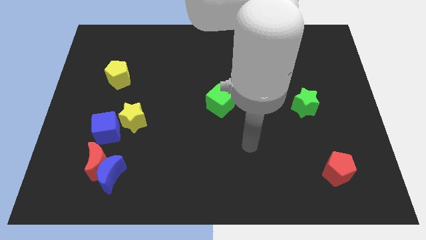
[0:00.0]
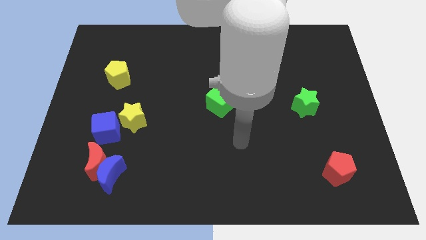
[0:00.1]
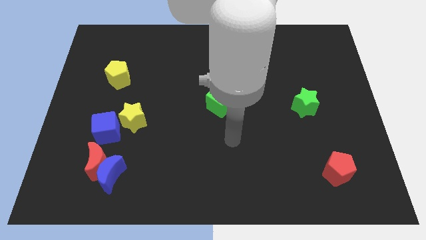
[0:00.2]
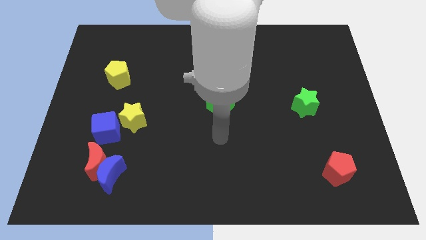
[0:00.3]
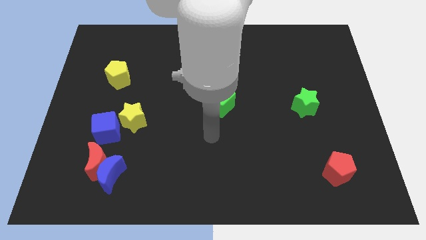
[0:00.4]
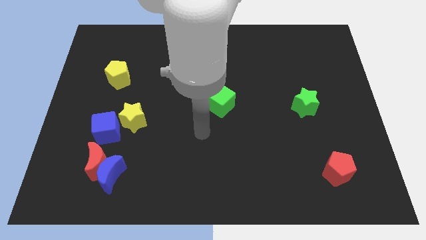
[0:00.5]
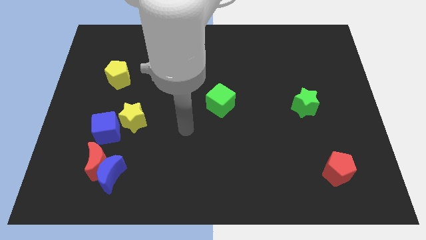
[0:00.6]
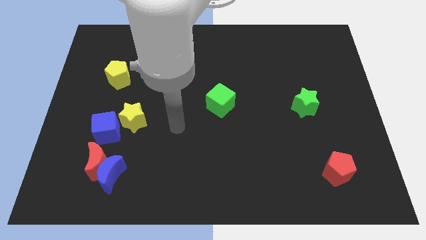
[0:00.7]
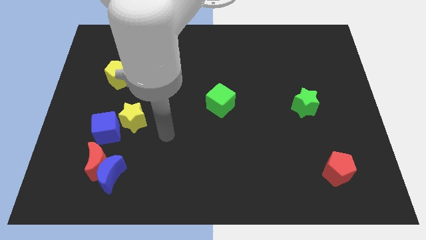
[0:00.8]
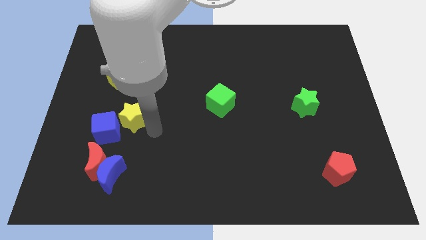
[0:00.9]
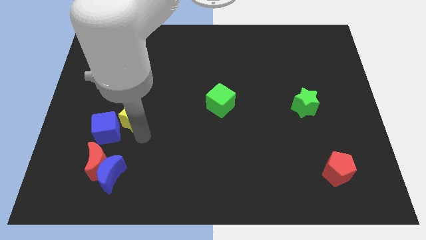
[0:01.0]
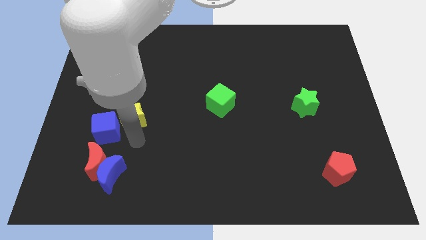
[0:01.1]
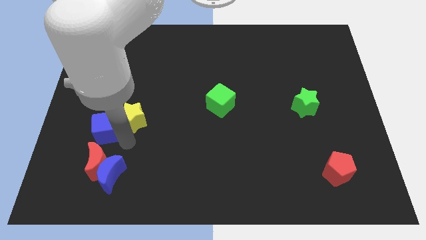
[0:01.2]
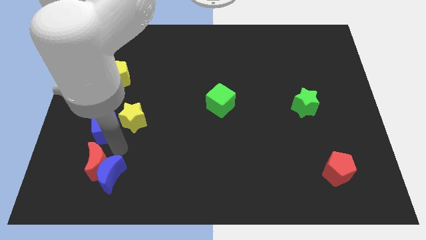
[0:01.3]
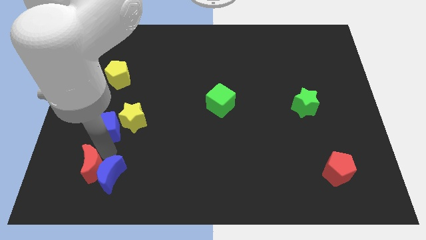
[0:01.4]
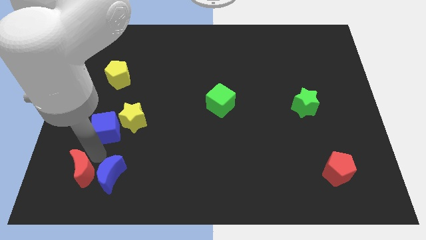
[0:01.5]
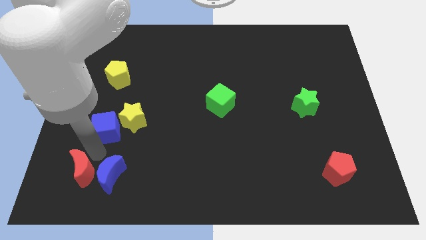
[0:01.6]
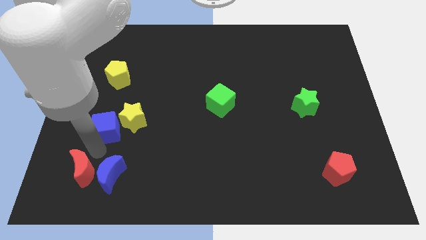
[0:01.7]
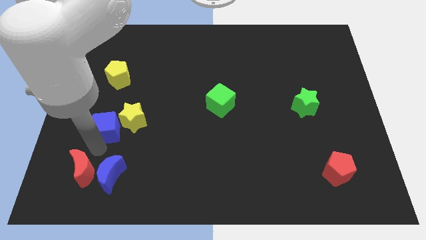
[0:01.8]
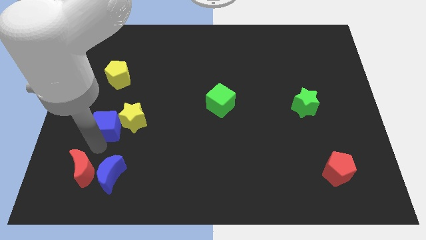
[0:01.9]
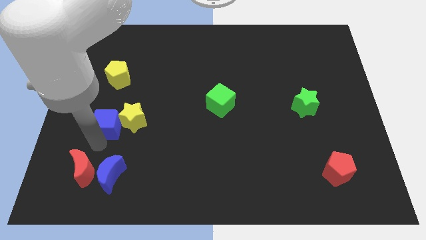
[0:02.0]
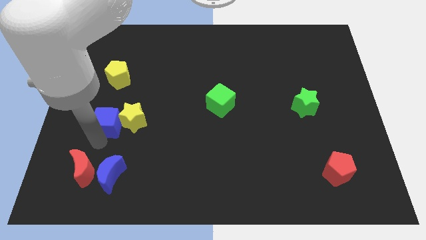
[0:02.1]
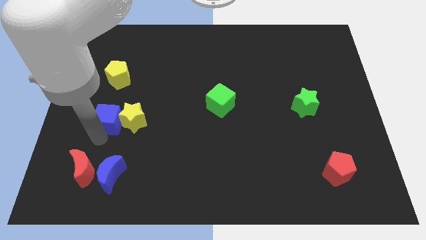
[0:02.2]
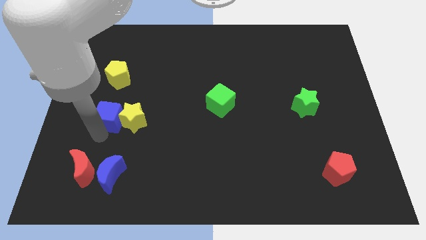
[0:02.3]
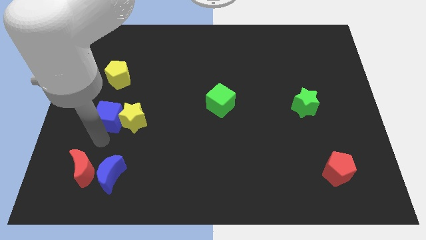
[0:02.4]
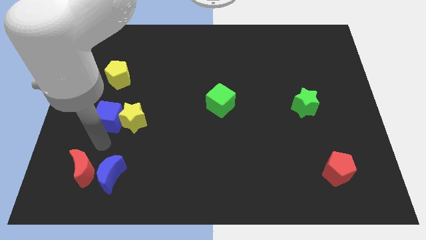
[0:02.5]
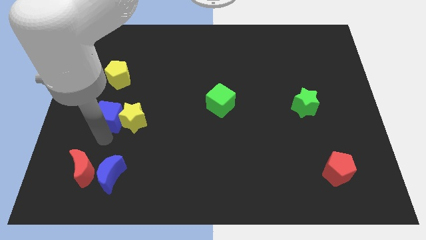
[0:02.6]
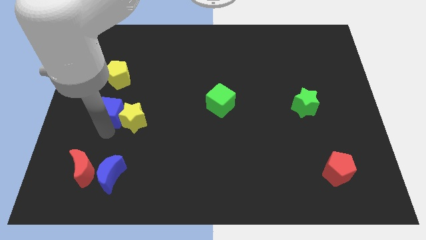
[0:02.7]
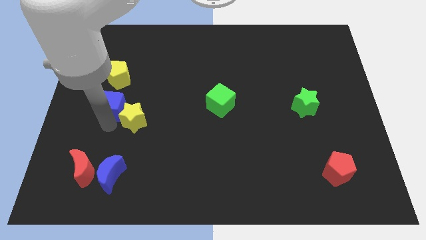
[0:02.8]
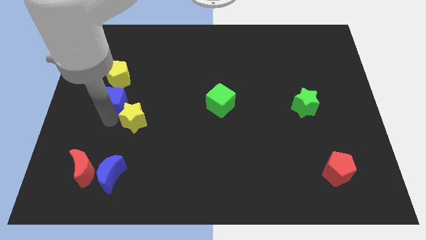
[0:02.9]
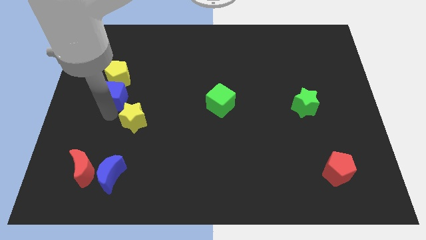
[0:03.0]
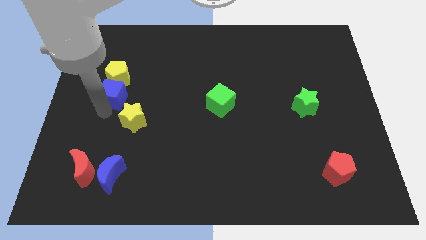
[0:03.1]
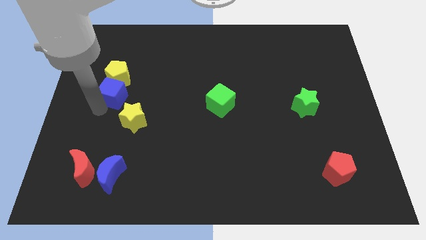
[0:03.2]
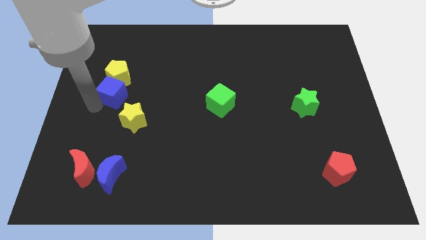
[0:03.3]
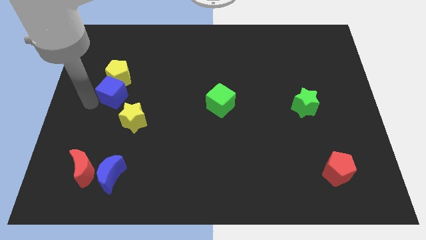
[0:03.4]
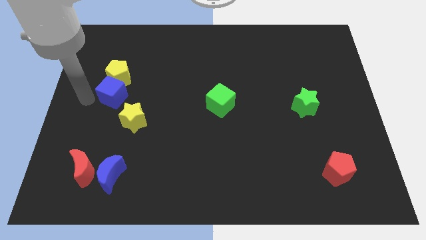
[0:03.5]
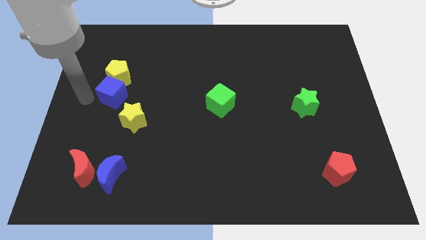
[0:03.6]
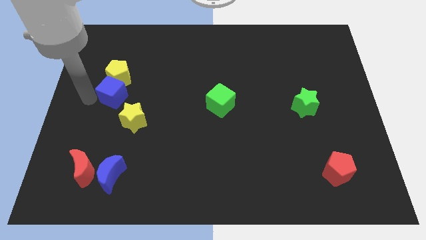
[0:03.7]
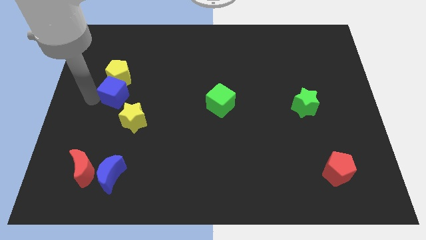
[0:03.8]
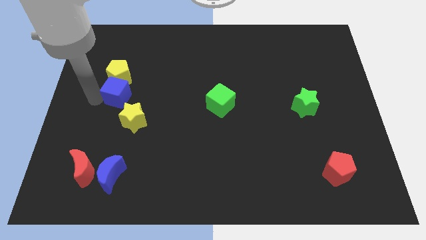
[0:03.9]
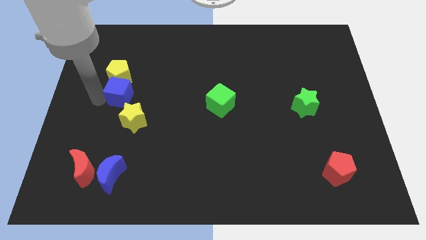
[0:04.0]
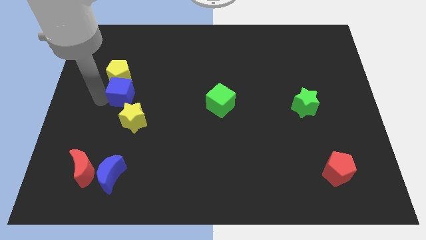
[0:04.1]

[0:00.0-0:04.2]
move the blue cube diagonally up and to the right a little

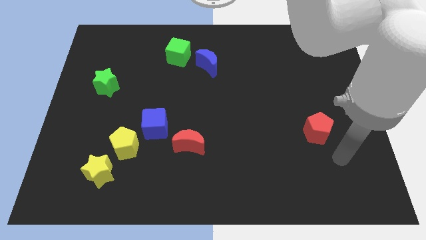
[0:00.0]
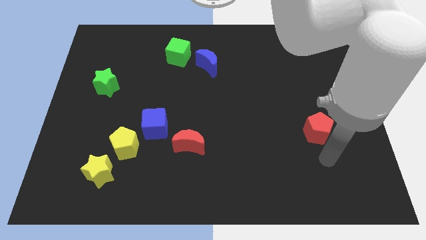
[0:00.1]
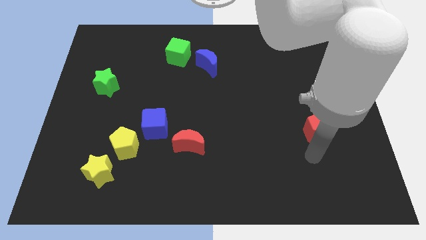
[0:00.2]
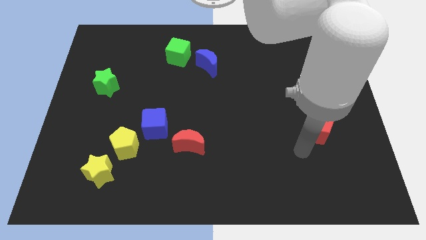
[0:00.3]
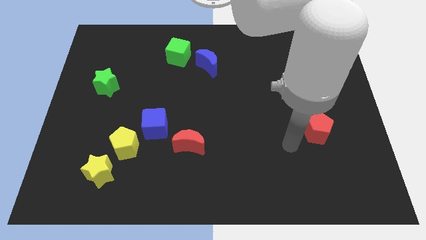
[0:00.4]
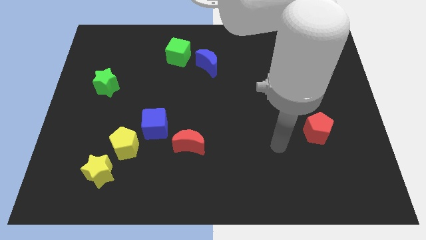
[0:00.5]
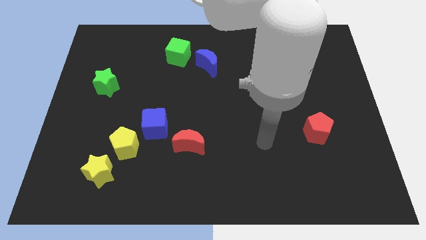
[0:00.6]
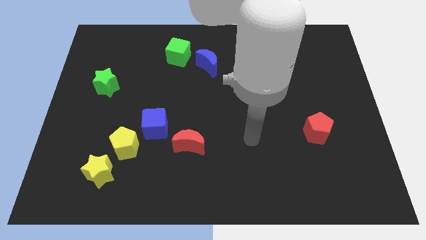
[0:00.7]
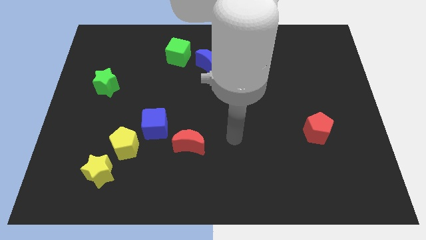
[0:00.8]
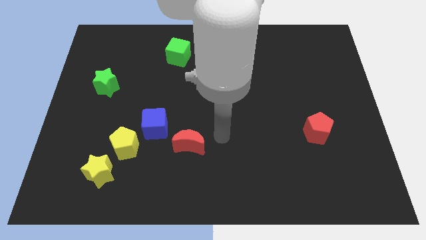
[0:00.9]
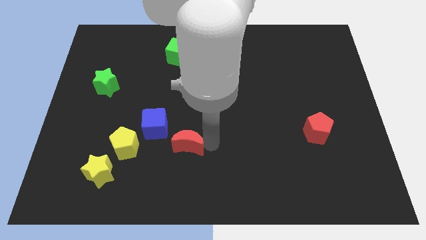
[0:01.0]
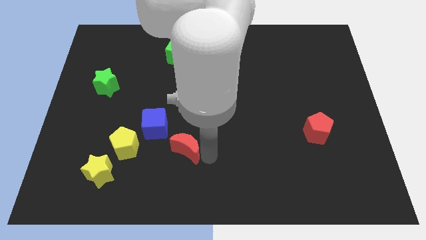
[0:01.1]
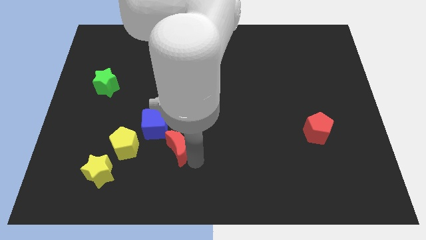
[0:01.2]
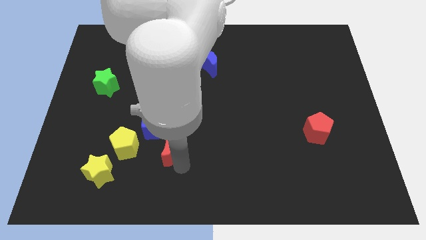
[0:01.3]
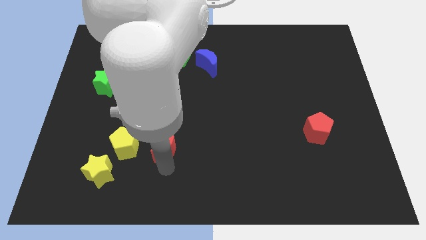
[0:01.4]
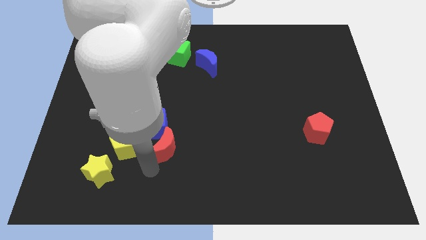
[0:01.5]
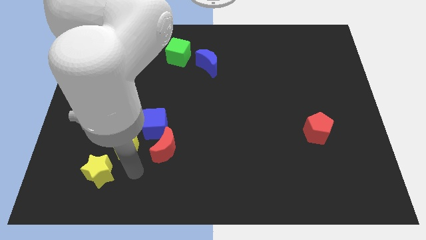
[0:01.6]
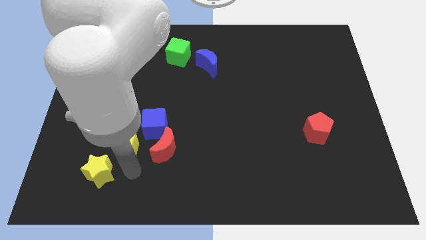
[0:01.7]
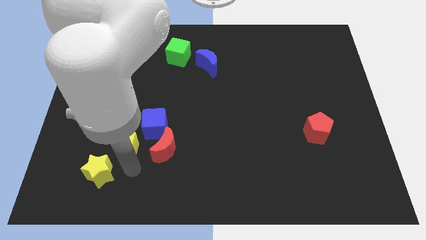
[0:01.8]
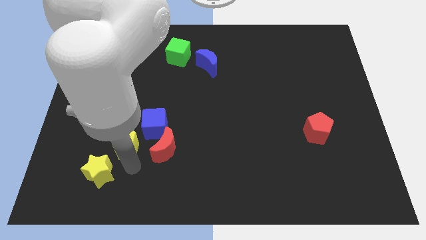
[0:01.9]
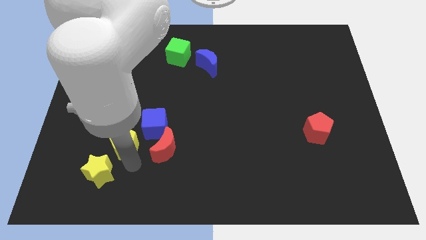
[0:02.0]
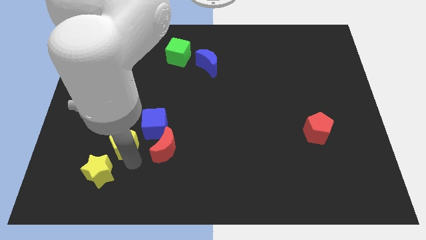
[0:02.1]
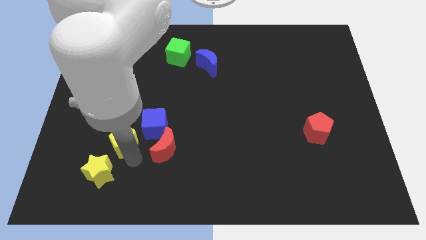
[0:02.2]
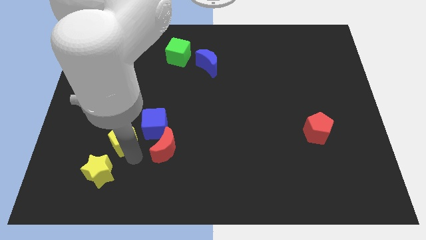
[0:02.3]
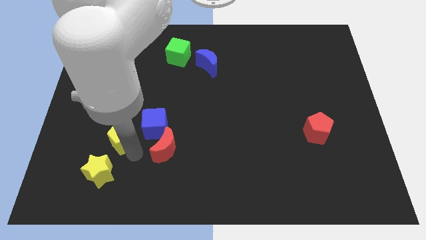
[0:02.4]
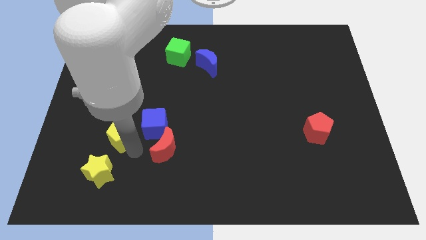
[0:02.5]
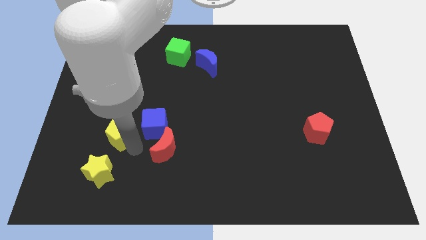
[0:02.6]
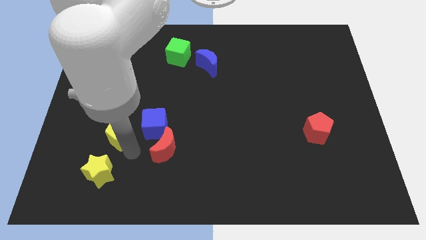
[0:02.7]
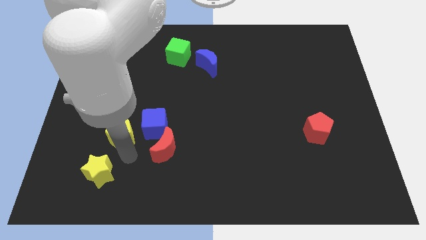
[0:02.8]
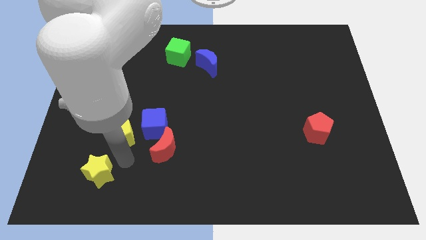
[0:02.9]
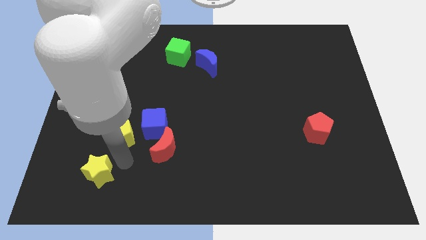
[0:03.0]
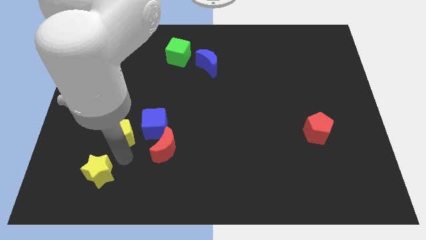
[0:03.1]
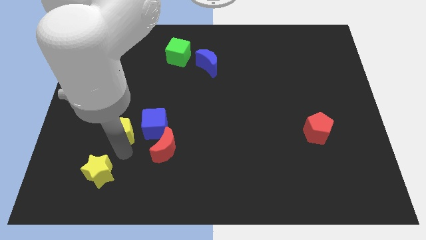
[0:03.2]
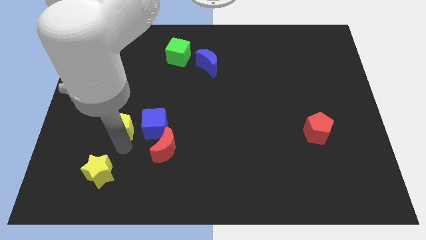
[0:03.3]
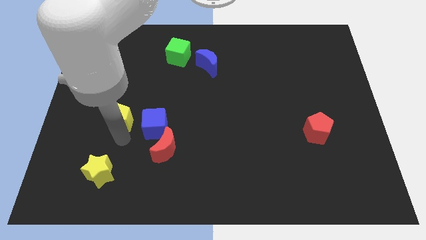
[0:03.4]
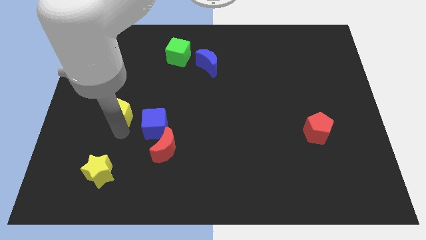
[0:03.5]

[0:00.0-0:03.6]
slightly move the yellow pentagon upwards
